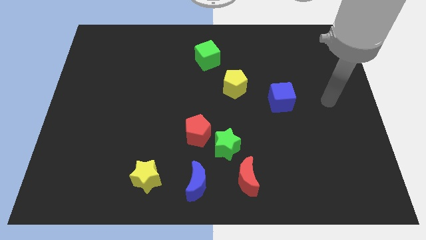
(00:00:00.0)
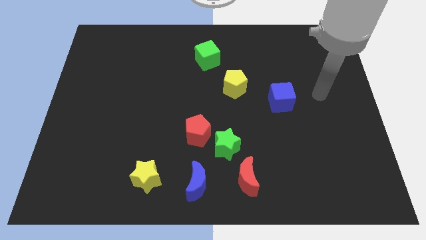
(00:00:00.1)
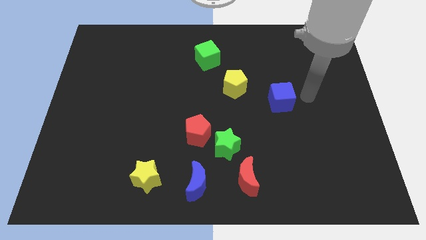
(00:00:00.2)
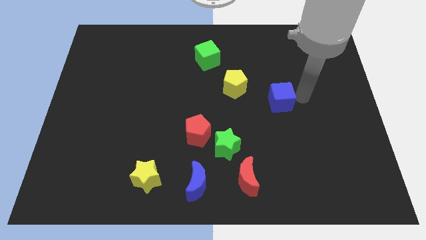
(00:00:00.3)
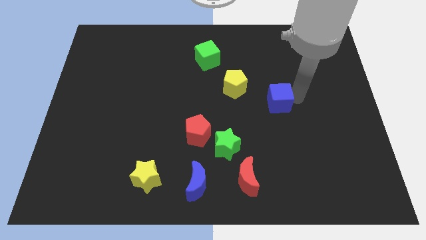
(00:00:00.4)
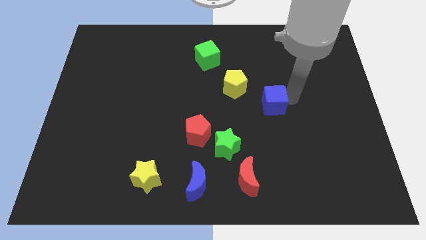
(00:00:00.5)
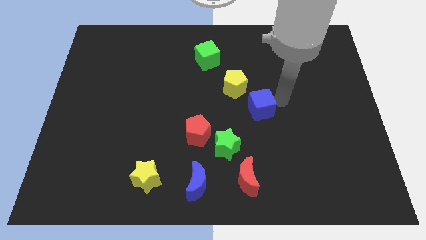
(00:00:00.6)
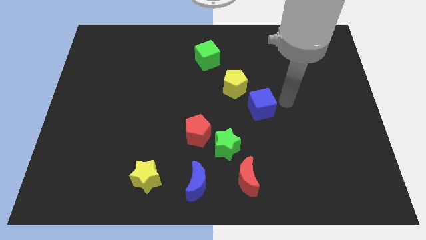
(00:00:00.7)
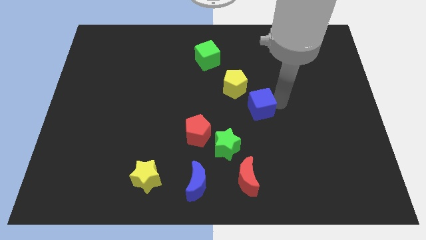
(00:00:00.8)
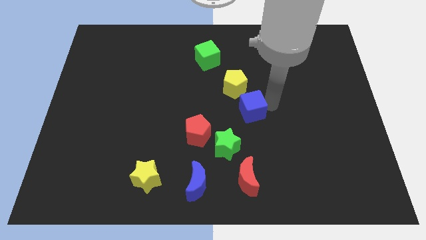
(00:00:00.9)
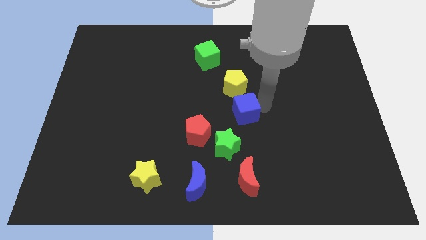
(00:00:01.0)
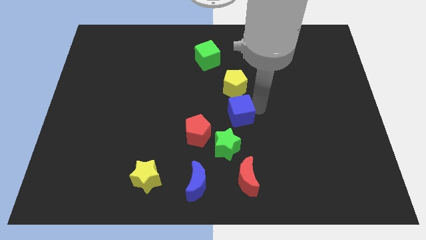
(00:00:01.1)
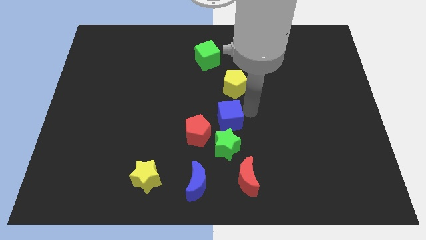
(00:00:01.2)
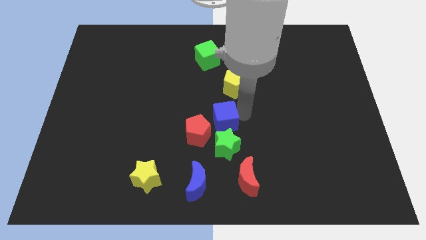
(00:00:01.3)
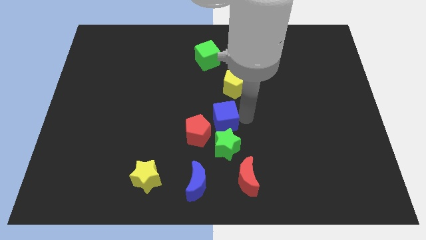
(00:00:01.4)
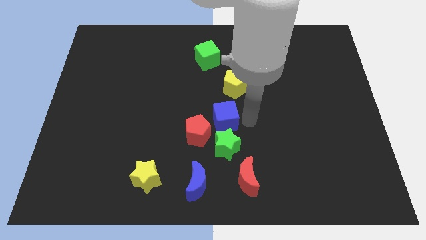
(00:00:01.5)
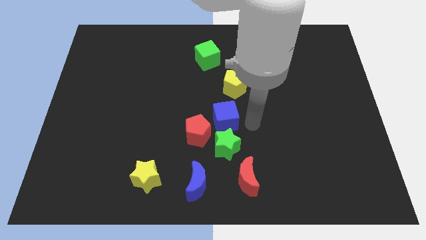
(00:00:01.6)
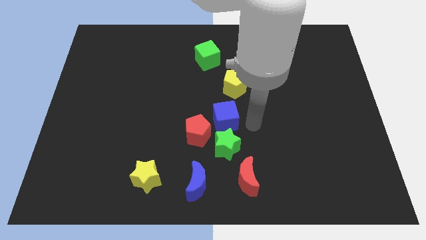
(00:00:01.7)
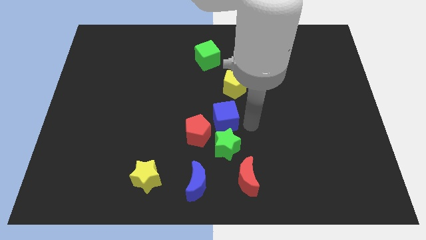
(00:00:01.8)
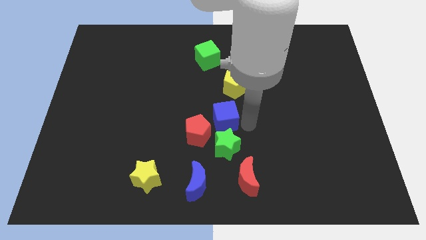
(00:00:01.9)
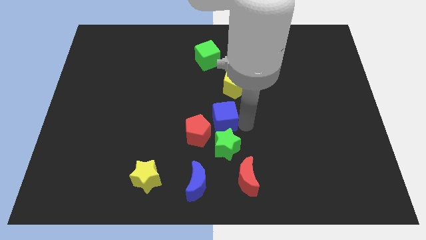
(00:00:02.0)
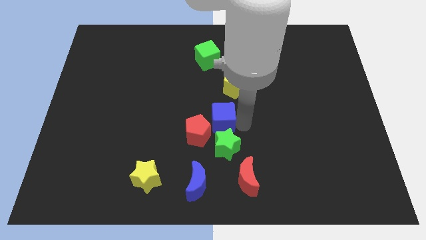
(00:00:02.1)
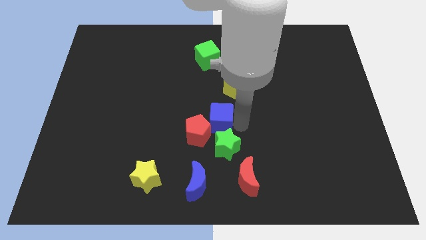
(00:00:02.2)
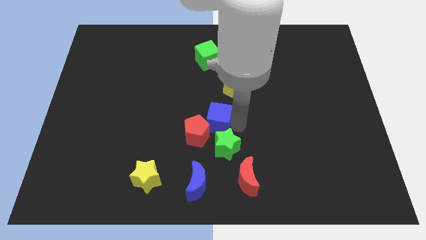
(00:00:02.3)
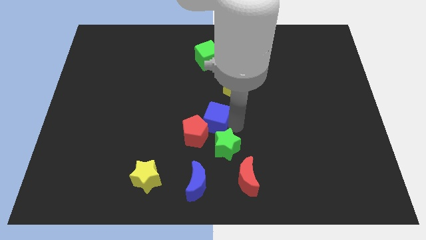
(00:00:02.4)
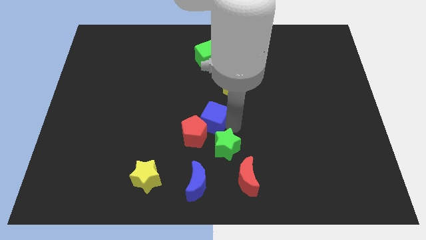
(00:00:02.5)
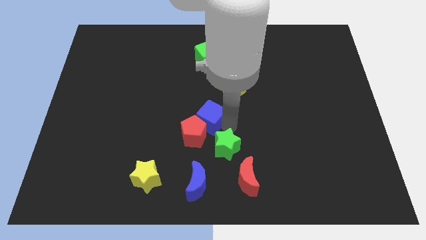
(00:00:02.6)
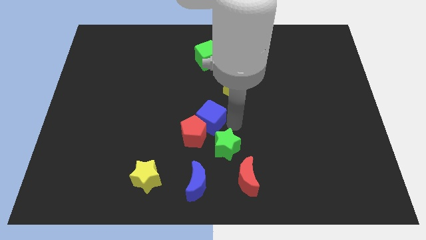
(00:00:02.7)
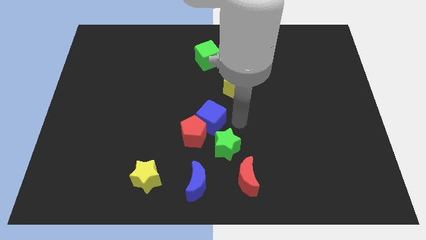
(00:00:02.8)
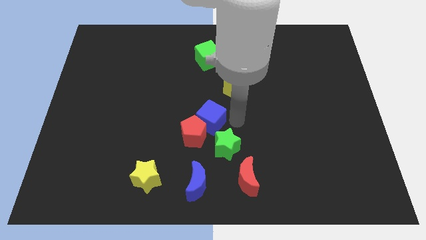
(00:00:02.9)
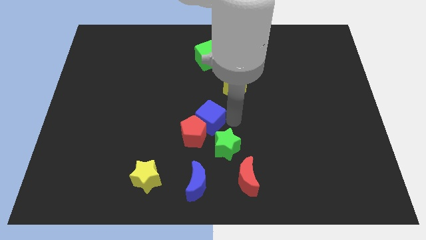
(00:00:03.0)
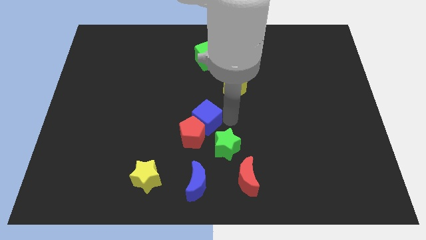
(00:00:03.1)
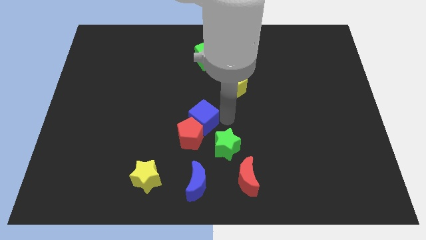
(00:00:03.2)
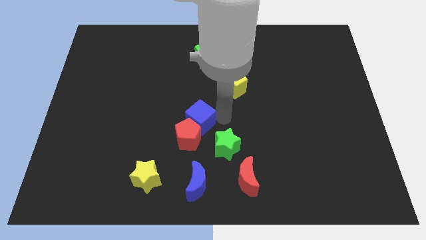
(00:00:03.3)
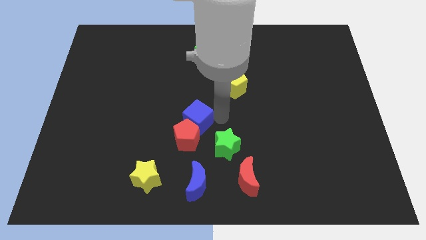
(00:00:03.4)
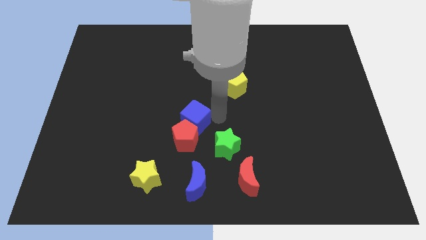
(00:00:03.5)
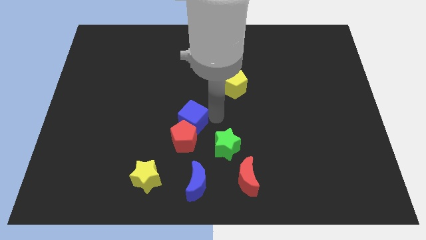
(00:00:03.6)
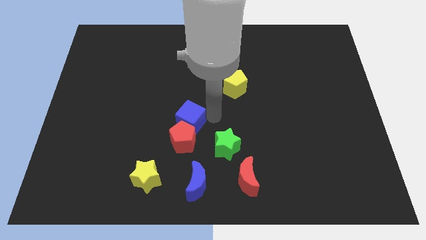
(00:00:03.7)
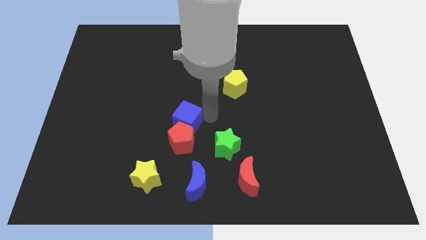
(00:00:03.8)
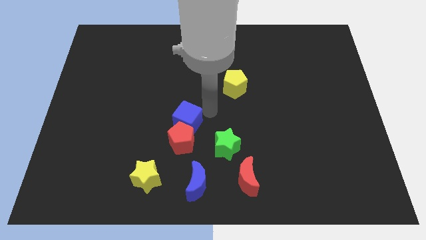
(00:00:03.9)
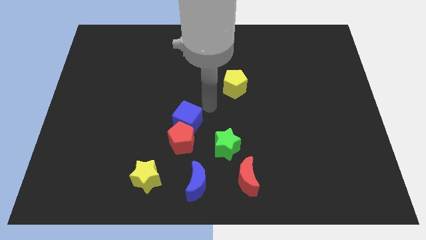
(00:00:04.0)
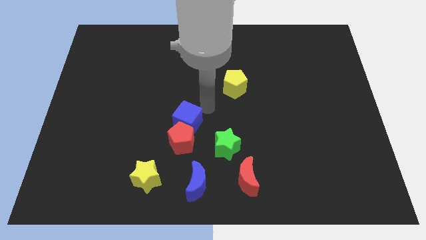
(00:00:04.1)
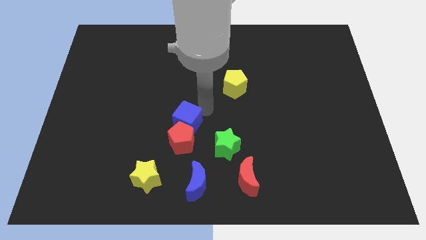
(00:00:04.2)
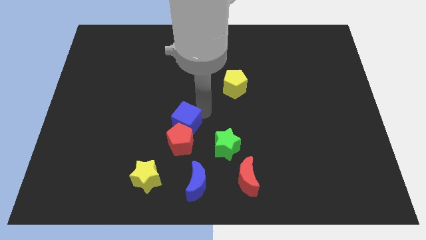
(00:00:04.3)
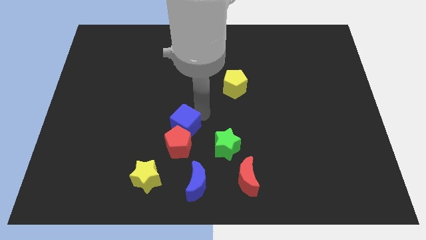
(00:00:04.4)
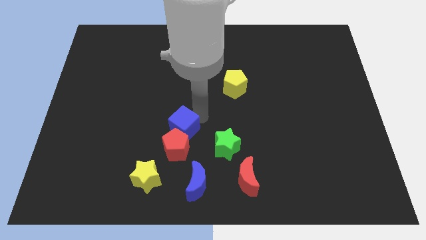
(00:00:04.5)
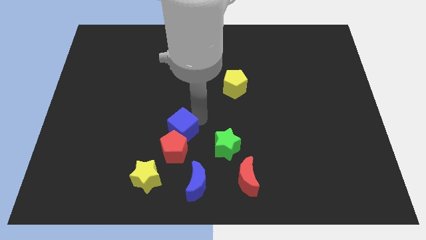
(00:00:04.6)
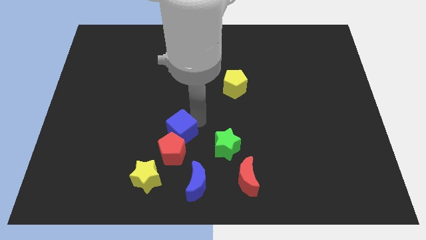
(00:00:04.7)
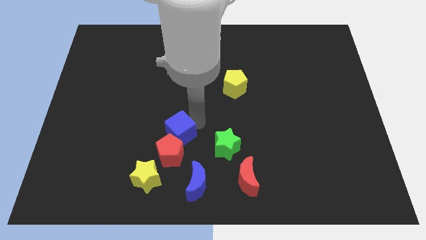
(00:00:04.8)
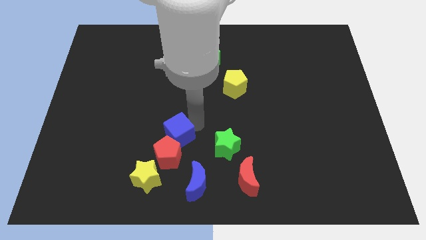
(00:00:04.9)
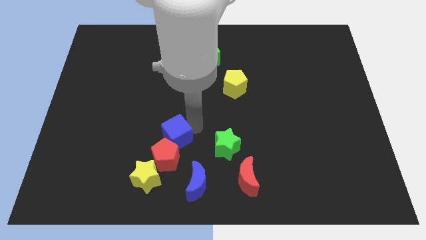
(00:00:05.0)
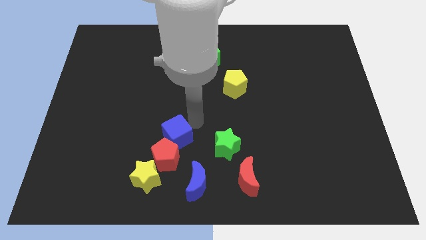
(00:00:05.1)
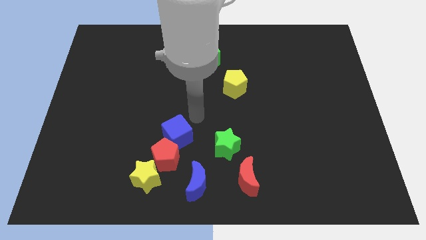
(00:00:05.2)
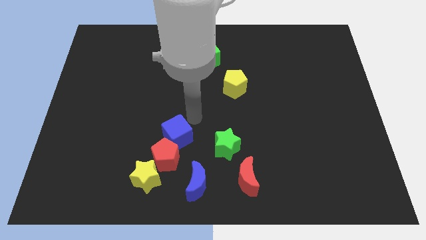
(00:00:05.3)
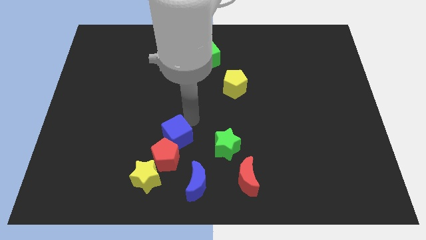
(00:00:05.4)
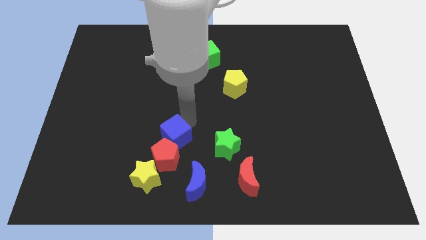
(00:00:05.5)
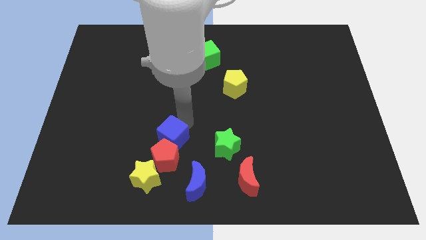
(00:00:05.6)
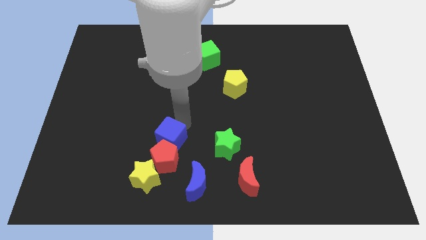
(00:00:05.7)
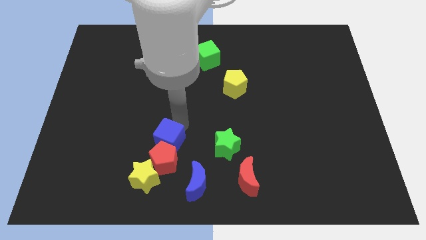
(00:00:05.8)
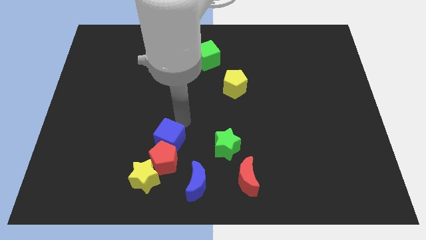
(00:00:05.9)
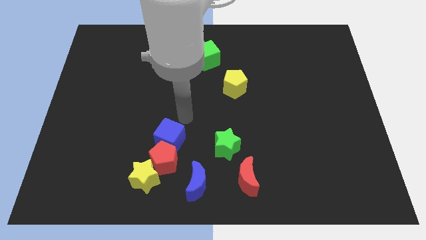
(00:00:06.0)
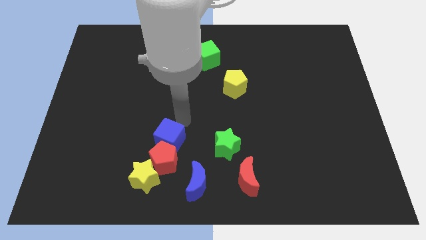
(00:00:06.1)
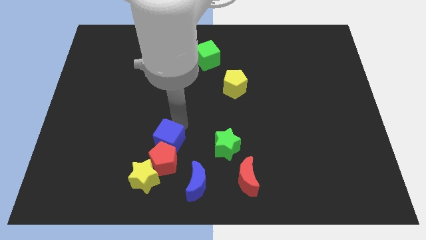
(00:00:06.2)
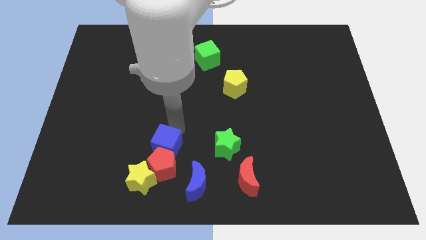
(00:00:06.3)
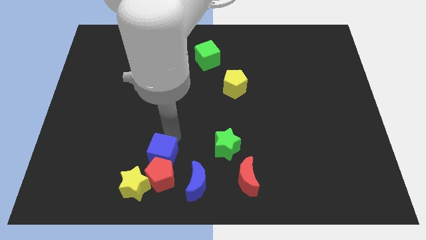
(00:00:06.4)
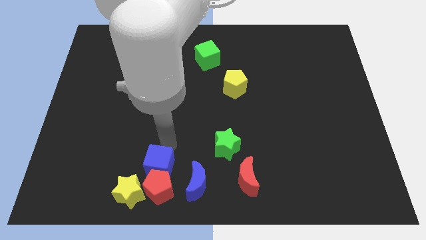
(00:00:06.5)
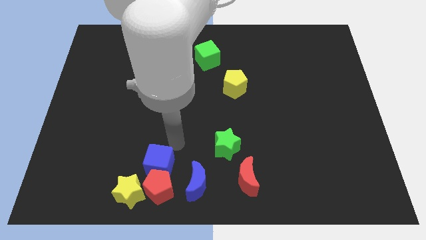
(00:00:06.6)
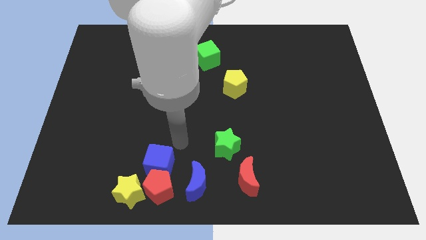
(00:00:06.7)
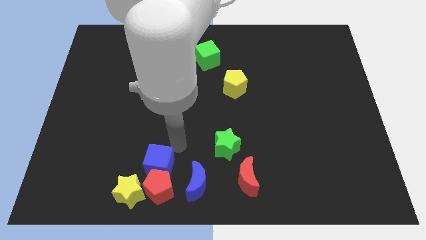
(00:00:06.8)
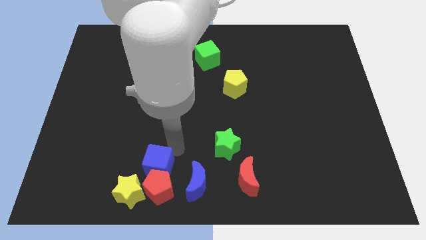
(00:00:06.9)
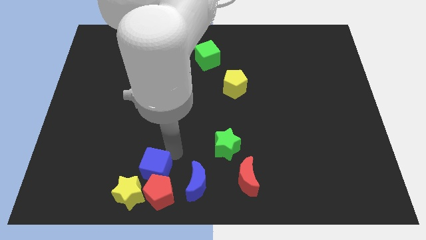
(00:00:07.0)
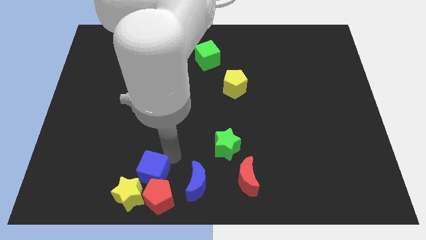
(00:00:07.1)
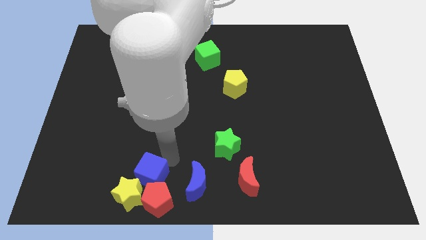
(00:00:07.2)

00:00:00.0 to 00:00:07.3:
put the blue cube next to the yellow star

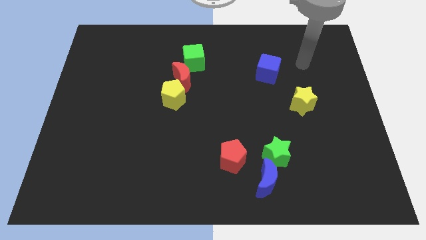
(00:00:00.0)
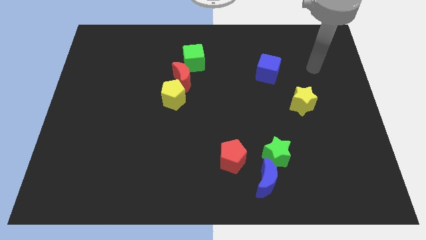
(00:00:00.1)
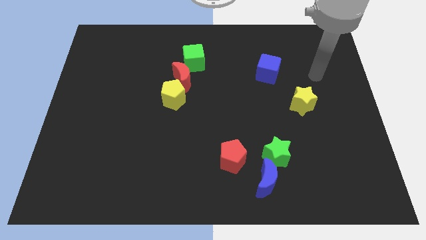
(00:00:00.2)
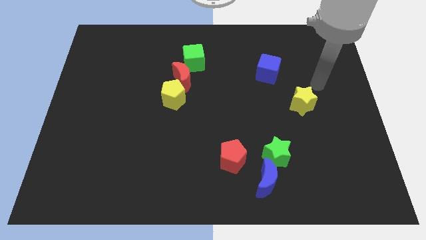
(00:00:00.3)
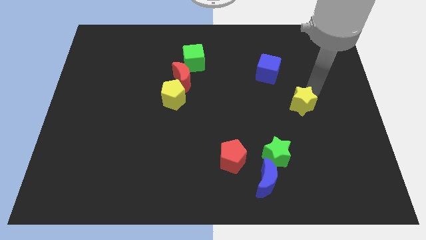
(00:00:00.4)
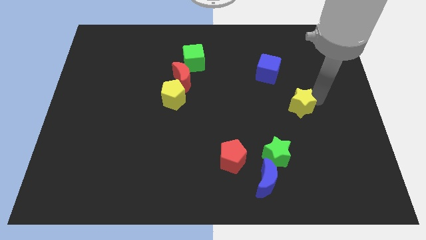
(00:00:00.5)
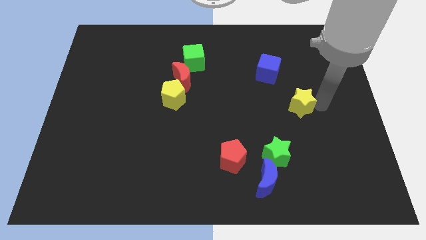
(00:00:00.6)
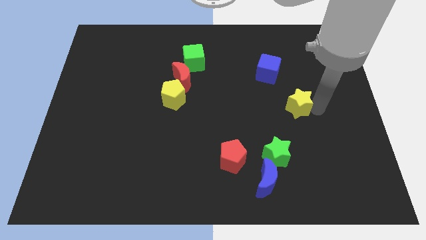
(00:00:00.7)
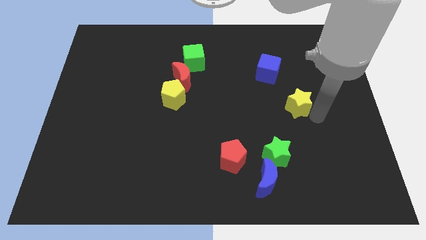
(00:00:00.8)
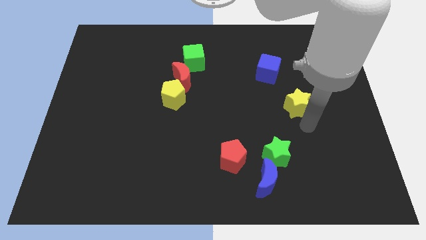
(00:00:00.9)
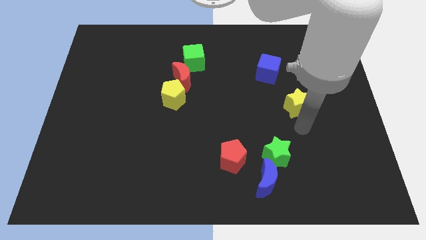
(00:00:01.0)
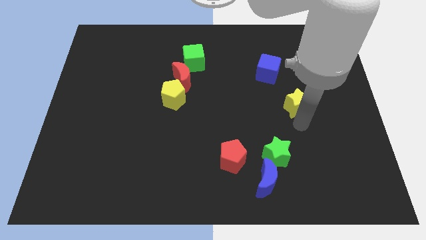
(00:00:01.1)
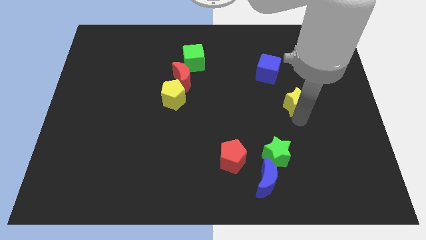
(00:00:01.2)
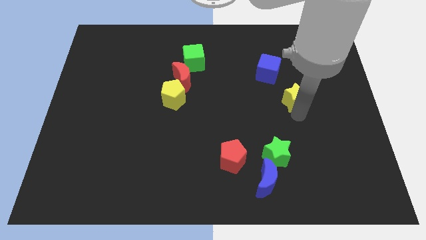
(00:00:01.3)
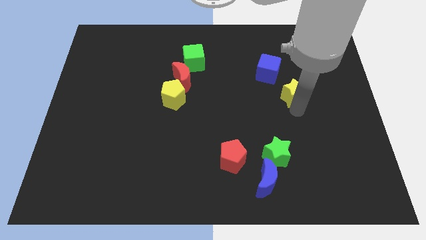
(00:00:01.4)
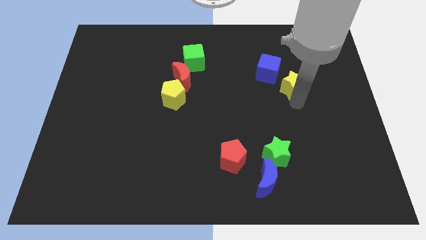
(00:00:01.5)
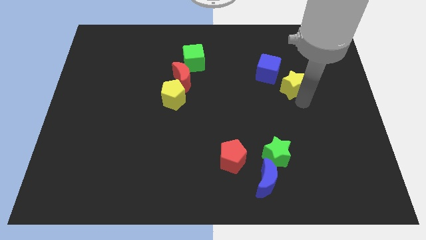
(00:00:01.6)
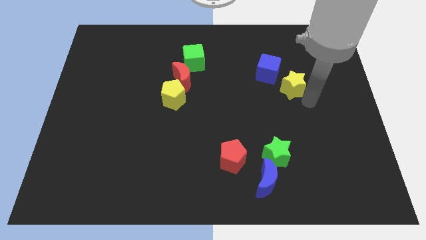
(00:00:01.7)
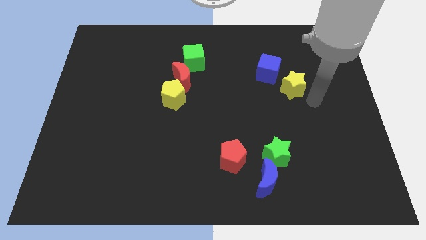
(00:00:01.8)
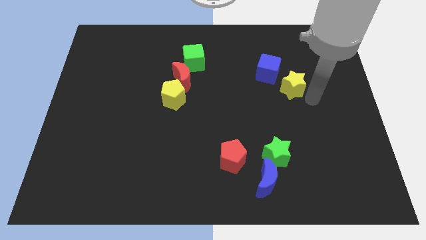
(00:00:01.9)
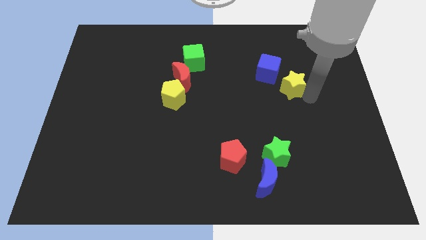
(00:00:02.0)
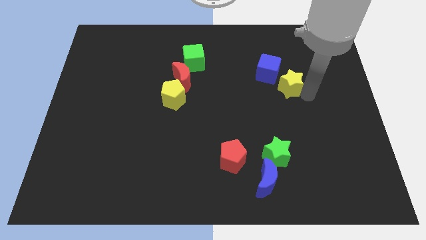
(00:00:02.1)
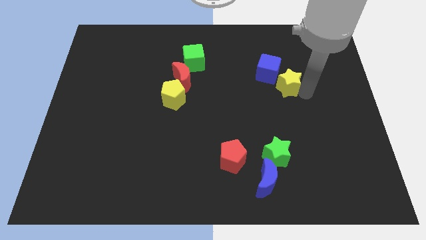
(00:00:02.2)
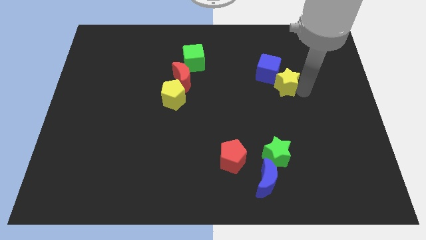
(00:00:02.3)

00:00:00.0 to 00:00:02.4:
push the yellow star next to the blue cube
